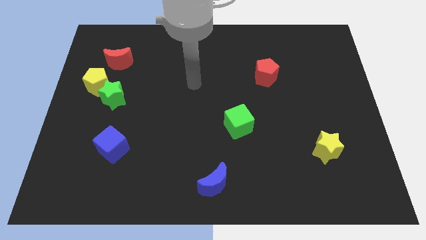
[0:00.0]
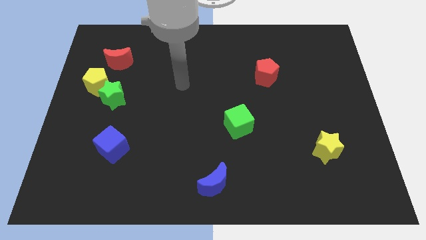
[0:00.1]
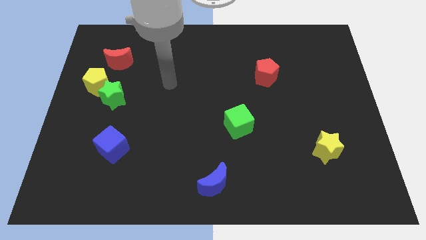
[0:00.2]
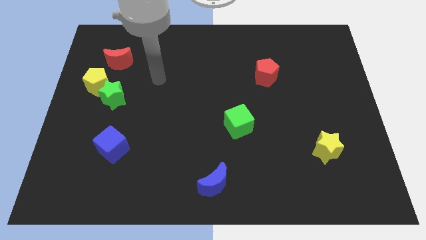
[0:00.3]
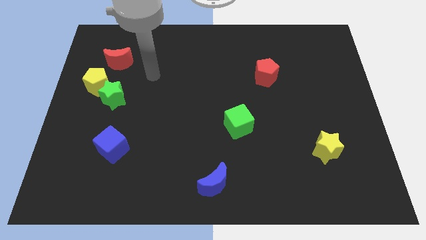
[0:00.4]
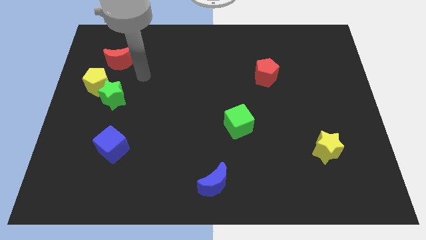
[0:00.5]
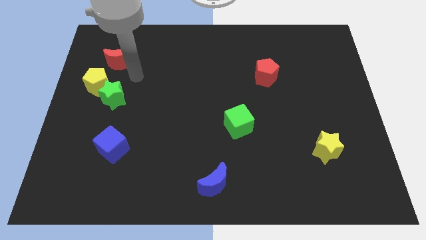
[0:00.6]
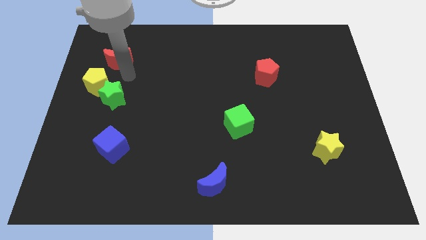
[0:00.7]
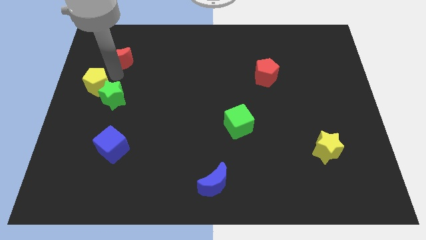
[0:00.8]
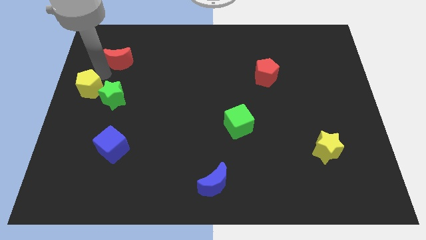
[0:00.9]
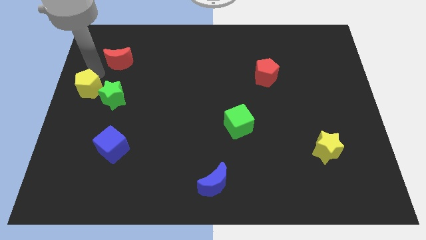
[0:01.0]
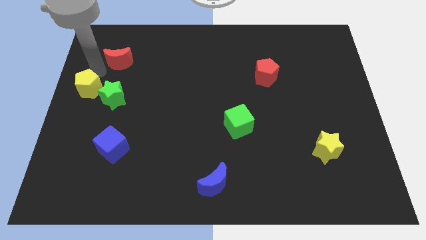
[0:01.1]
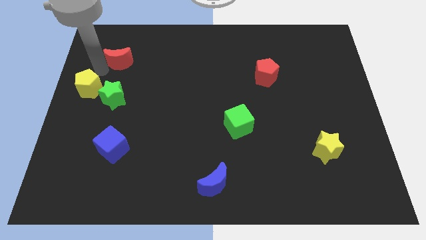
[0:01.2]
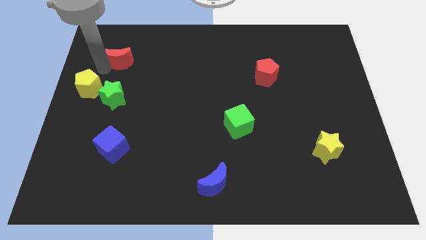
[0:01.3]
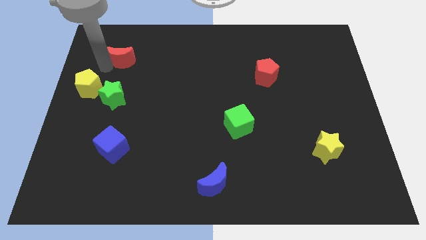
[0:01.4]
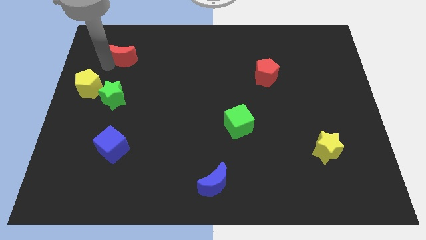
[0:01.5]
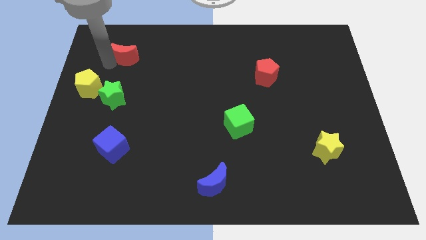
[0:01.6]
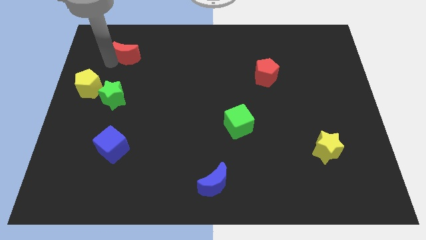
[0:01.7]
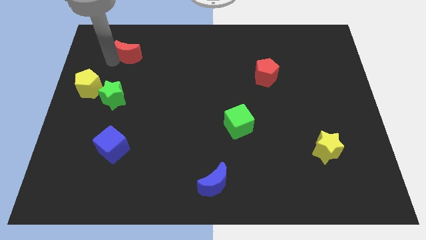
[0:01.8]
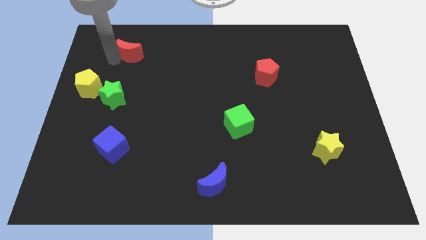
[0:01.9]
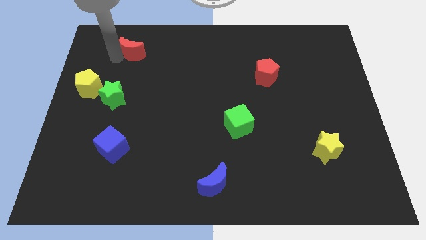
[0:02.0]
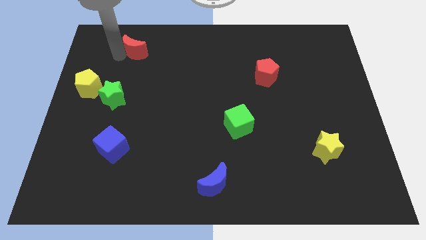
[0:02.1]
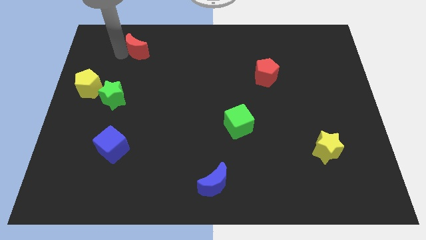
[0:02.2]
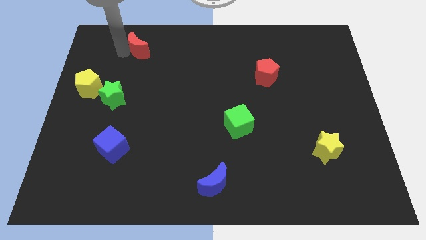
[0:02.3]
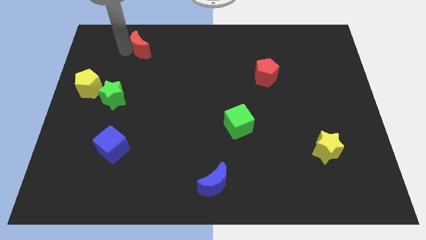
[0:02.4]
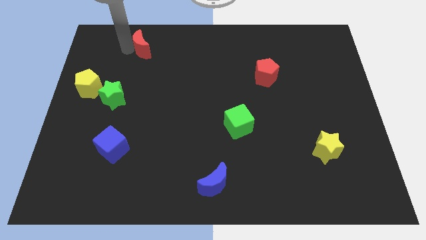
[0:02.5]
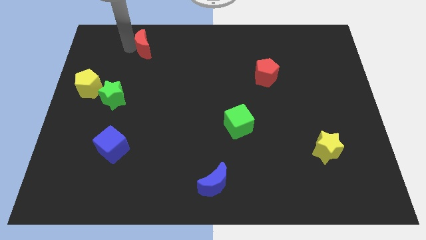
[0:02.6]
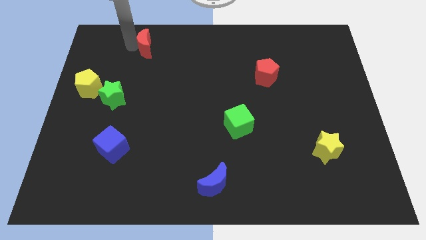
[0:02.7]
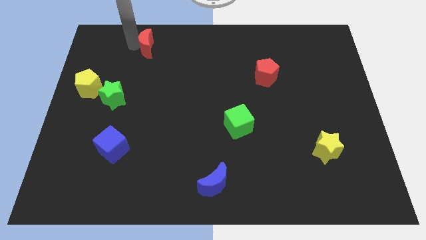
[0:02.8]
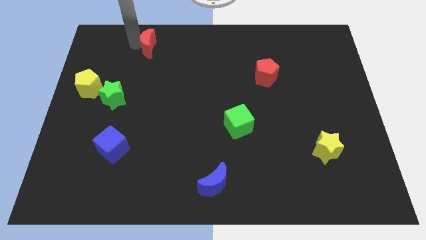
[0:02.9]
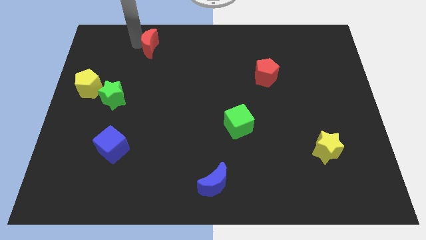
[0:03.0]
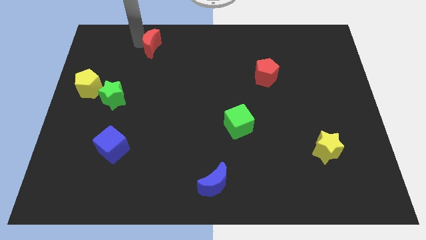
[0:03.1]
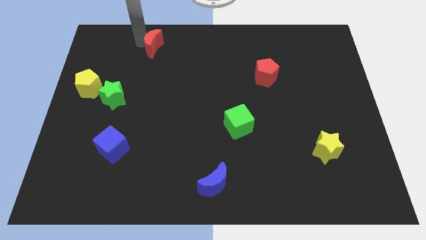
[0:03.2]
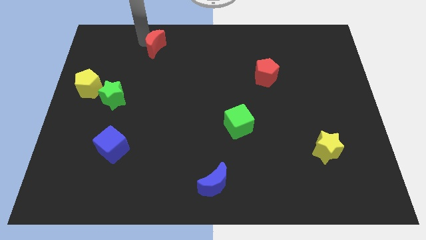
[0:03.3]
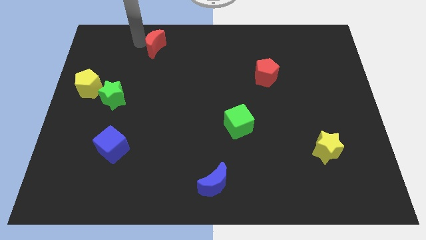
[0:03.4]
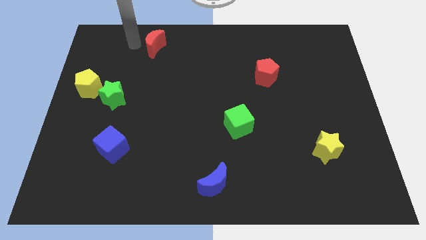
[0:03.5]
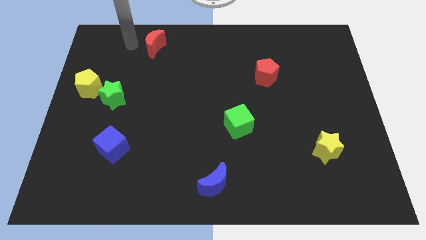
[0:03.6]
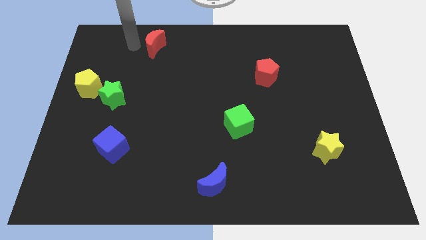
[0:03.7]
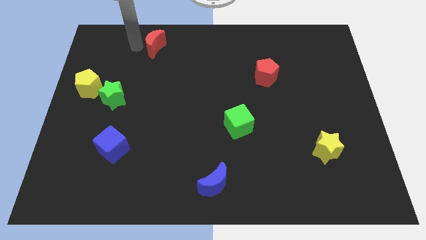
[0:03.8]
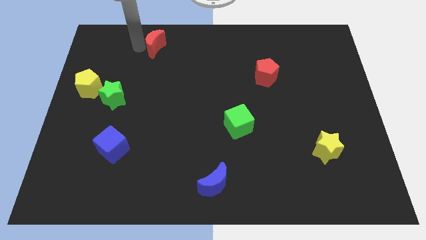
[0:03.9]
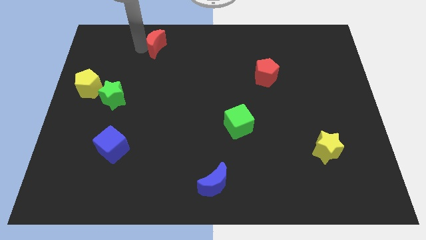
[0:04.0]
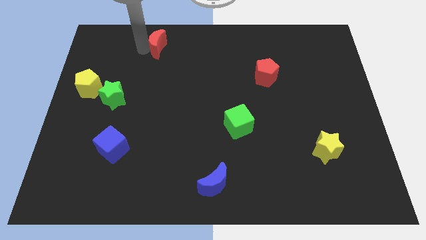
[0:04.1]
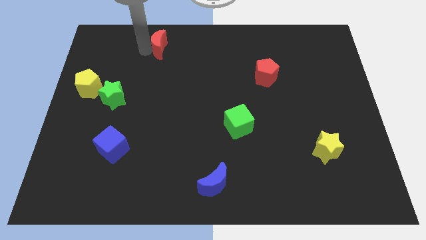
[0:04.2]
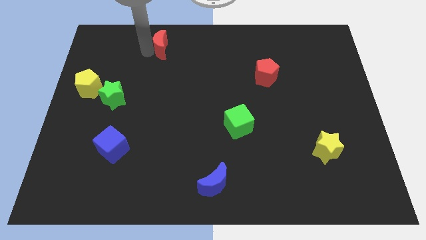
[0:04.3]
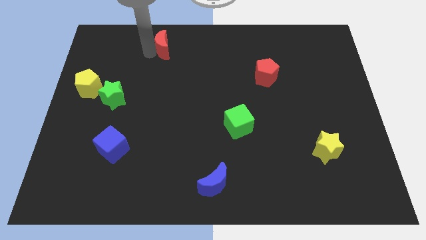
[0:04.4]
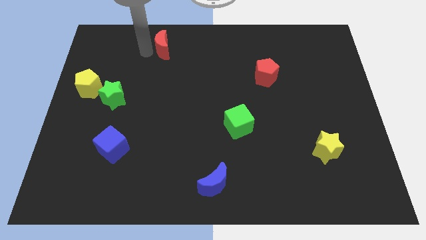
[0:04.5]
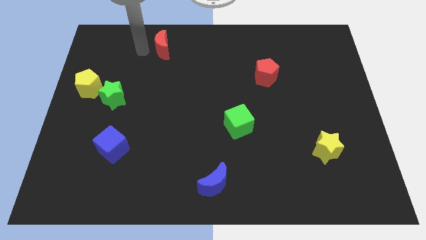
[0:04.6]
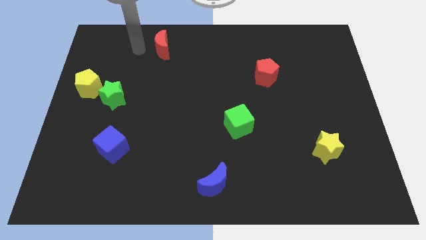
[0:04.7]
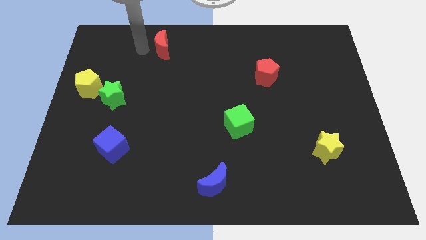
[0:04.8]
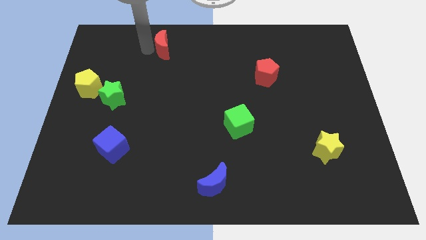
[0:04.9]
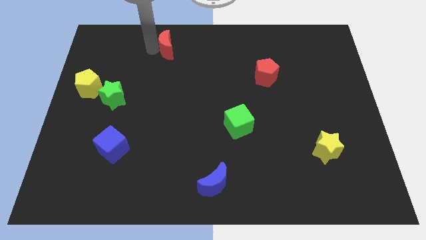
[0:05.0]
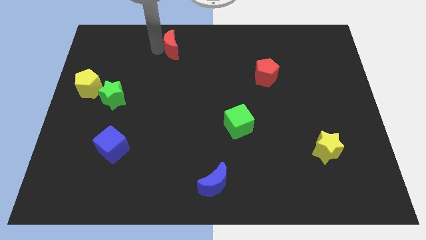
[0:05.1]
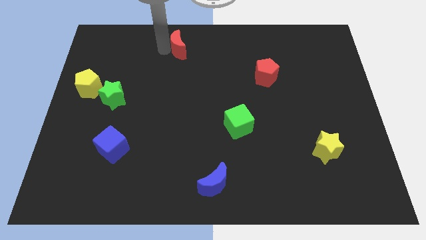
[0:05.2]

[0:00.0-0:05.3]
move the red moon to the top
